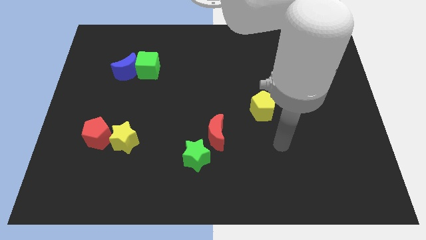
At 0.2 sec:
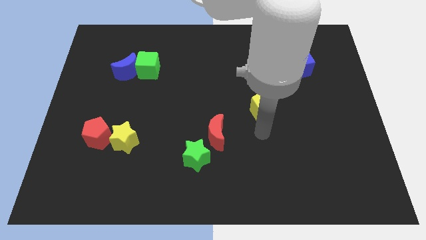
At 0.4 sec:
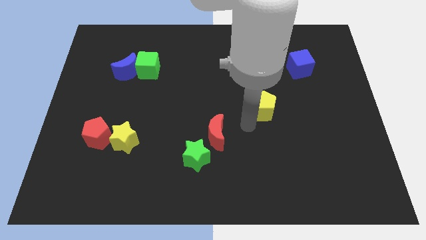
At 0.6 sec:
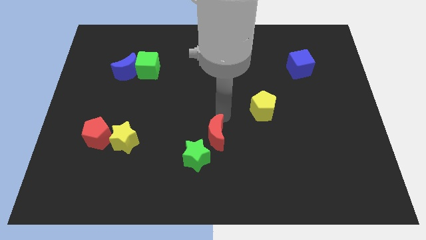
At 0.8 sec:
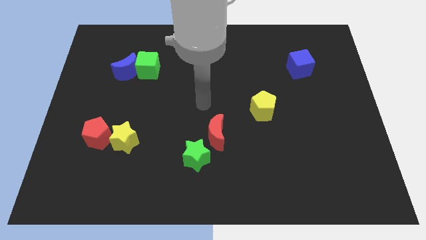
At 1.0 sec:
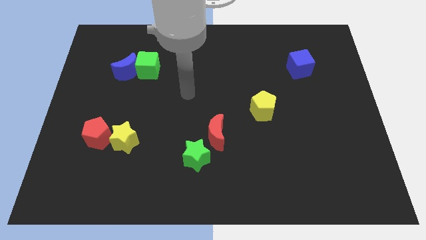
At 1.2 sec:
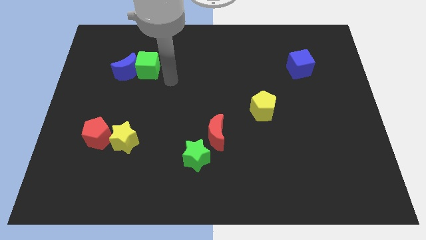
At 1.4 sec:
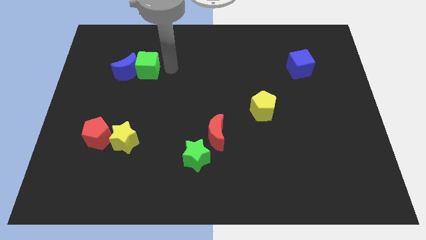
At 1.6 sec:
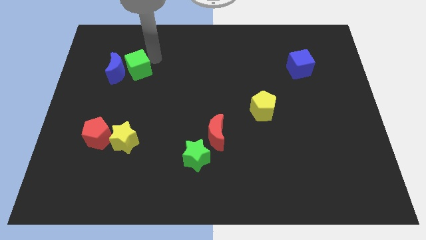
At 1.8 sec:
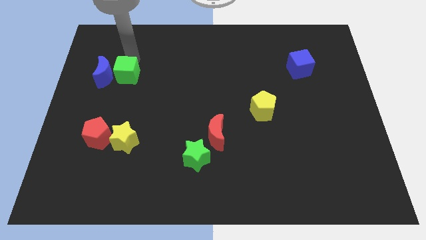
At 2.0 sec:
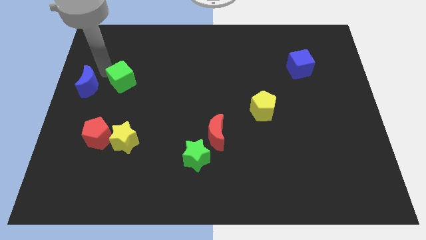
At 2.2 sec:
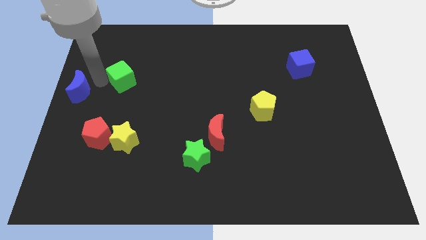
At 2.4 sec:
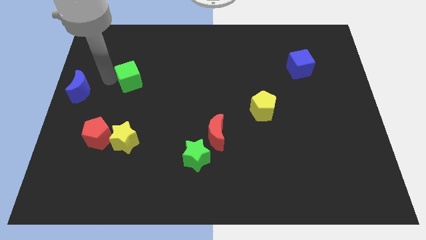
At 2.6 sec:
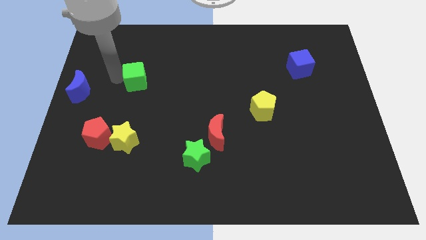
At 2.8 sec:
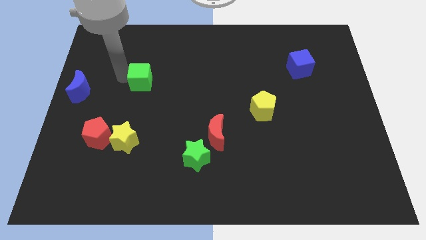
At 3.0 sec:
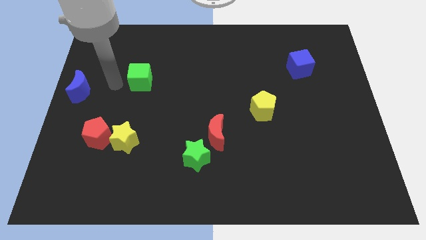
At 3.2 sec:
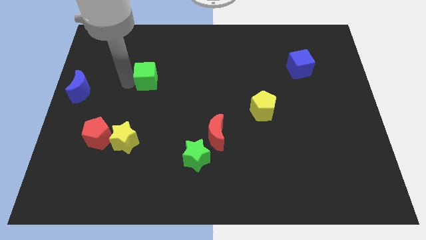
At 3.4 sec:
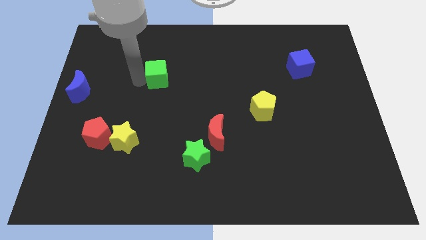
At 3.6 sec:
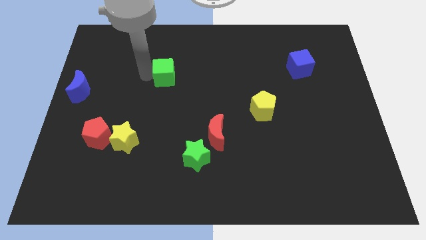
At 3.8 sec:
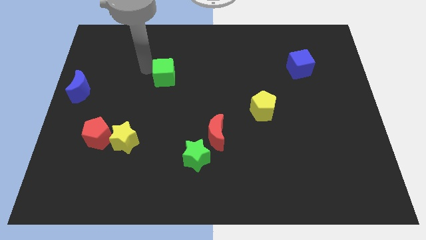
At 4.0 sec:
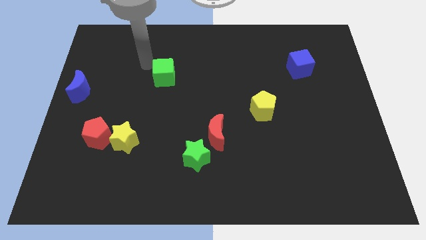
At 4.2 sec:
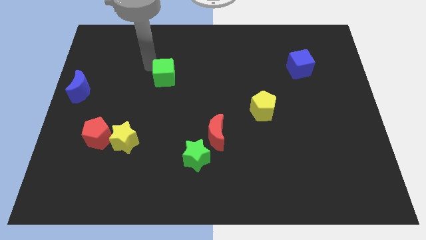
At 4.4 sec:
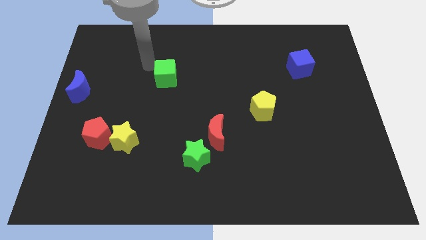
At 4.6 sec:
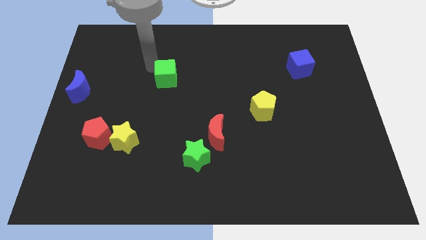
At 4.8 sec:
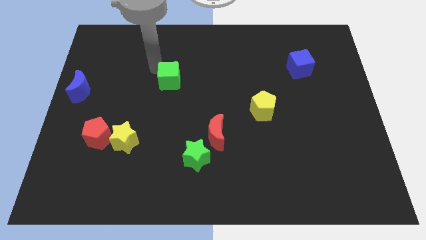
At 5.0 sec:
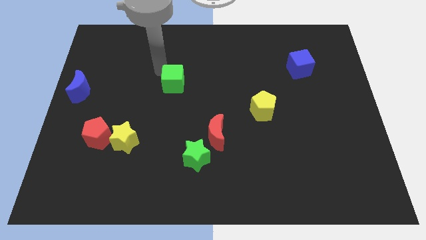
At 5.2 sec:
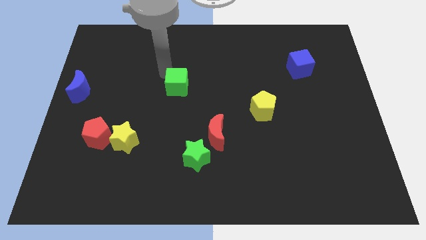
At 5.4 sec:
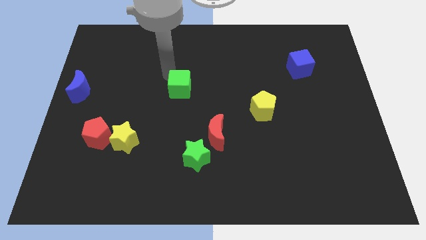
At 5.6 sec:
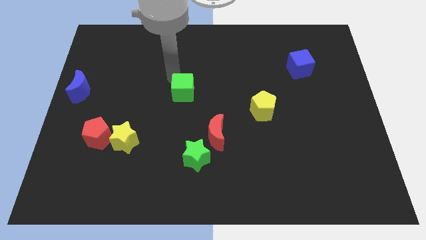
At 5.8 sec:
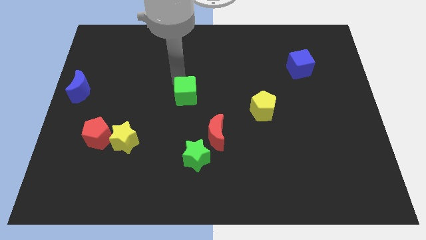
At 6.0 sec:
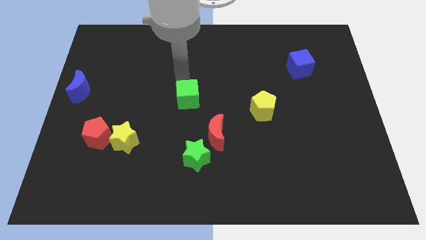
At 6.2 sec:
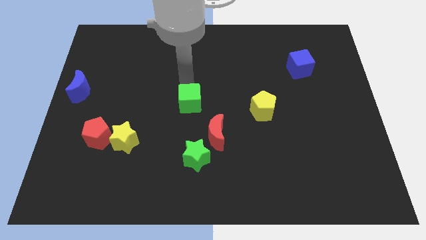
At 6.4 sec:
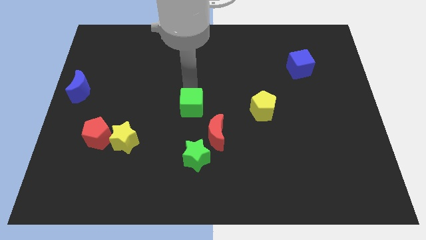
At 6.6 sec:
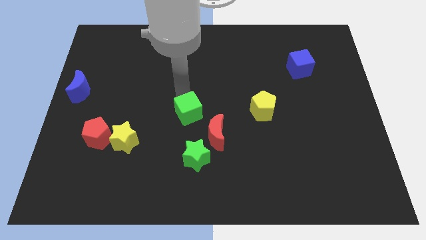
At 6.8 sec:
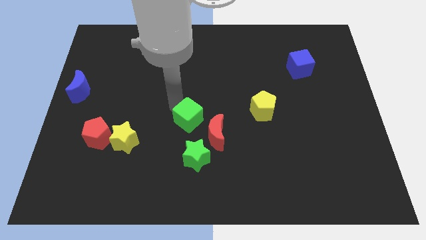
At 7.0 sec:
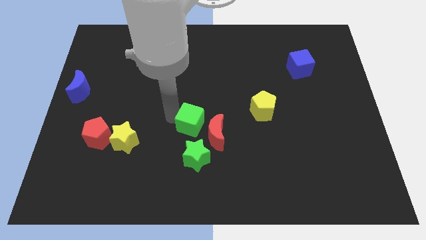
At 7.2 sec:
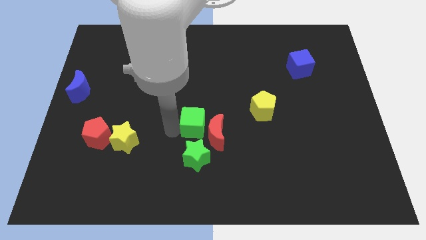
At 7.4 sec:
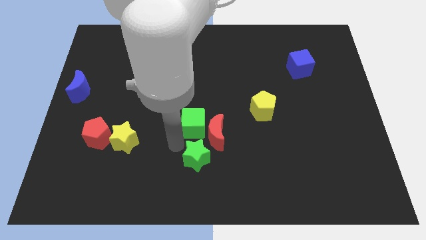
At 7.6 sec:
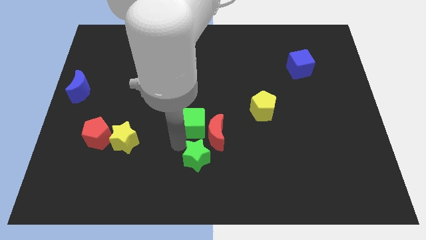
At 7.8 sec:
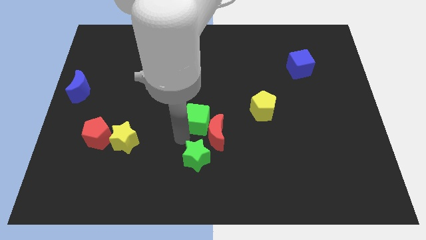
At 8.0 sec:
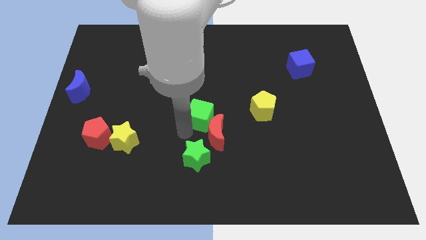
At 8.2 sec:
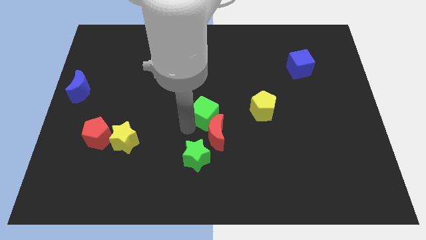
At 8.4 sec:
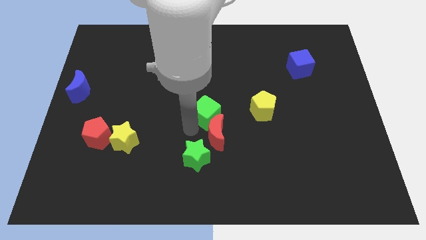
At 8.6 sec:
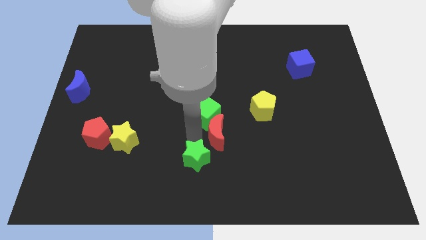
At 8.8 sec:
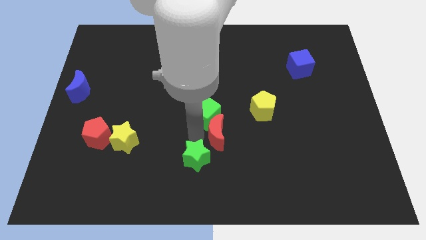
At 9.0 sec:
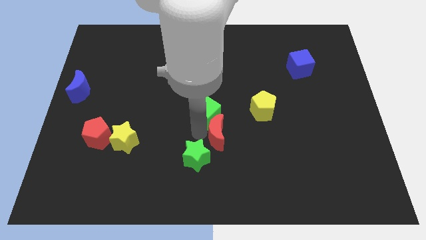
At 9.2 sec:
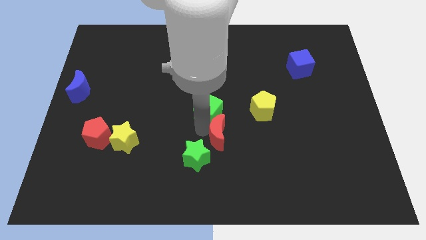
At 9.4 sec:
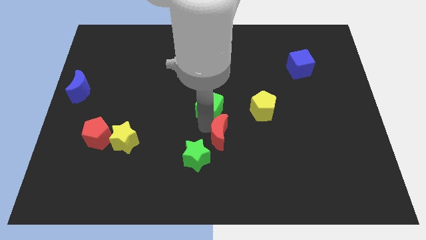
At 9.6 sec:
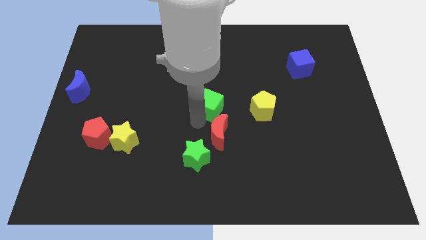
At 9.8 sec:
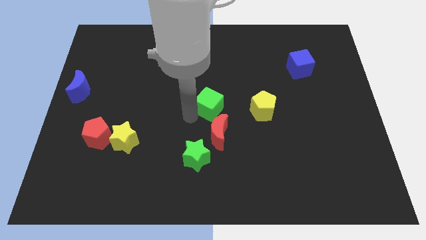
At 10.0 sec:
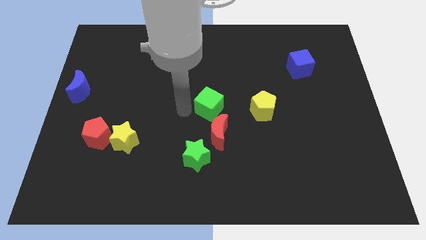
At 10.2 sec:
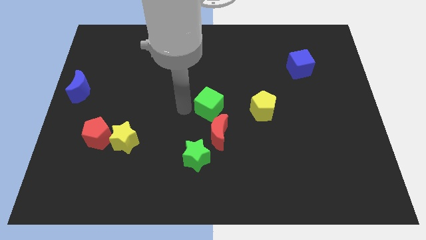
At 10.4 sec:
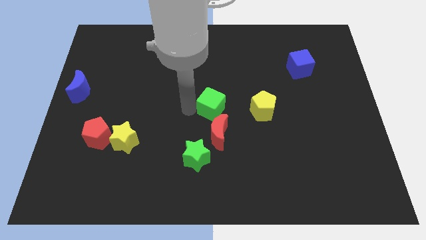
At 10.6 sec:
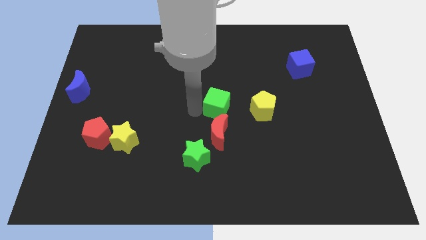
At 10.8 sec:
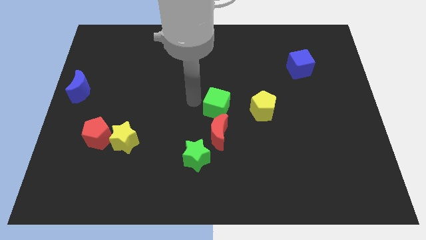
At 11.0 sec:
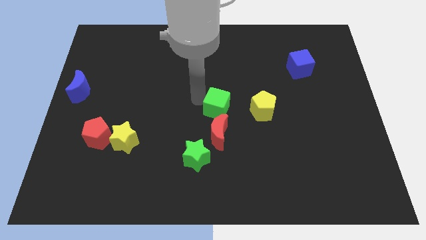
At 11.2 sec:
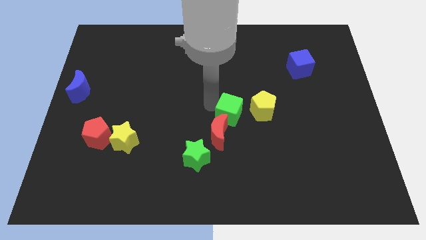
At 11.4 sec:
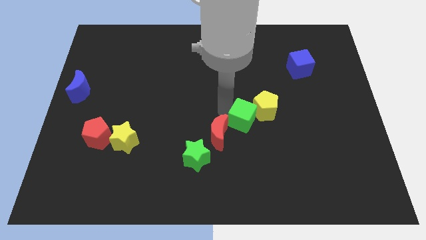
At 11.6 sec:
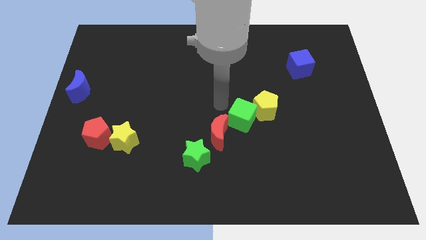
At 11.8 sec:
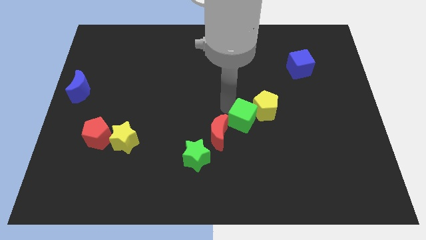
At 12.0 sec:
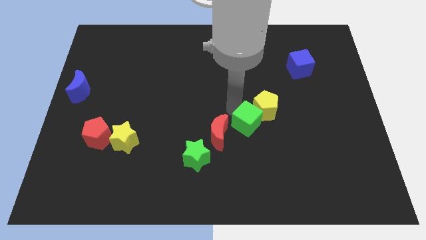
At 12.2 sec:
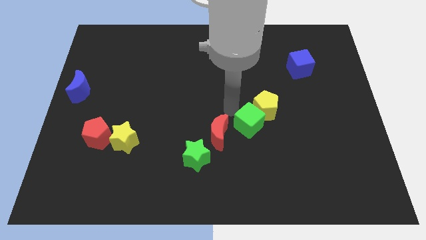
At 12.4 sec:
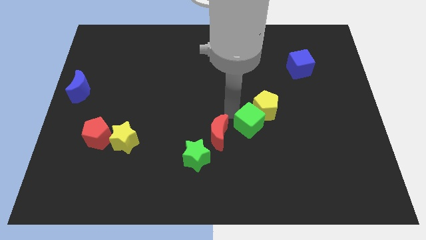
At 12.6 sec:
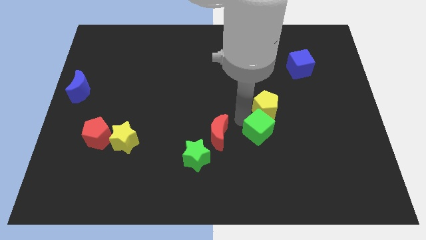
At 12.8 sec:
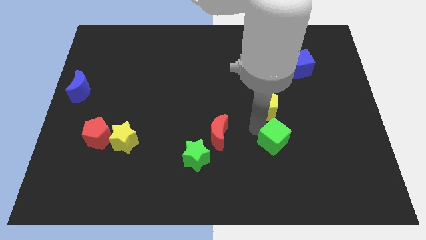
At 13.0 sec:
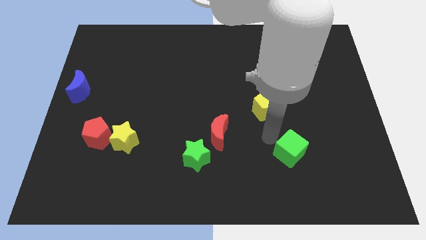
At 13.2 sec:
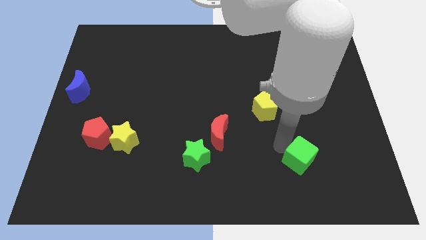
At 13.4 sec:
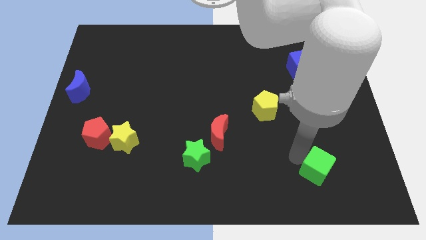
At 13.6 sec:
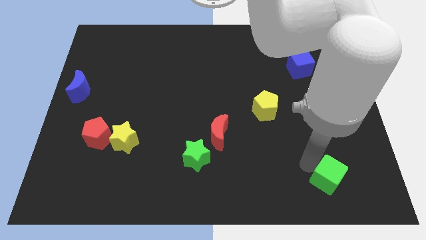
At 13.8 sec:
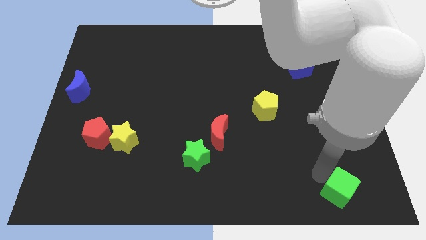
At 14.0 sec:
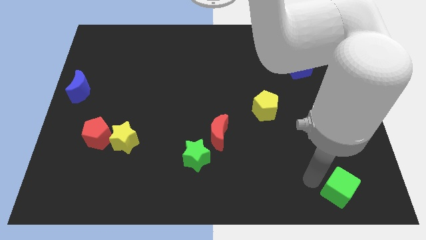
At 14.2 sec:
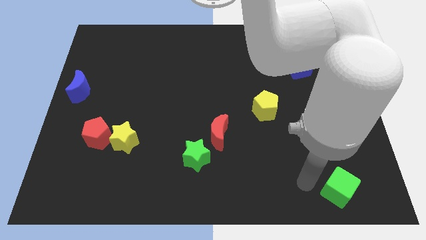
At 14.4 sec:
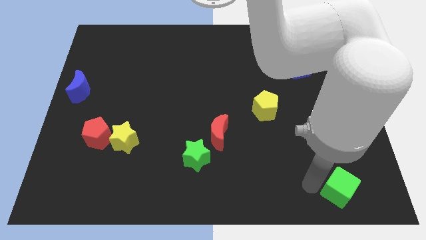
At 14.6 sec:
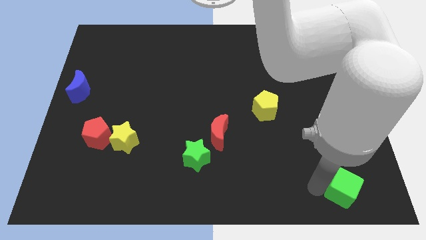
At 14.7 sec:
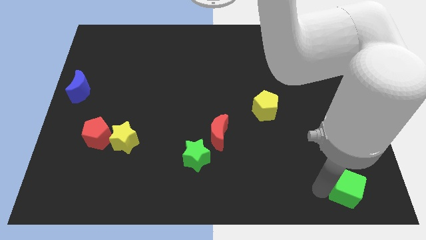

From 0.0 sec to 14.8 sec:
put the green cube to the bottom right of the board
